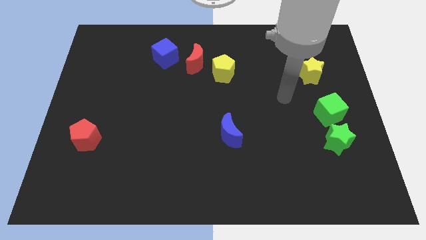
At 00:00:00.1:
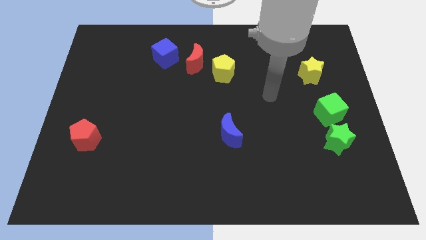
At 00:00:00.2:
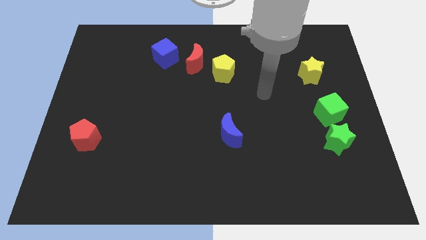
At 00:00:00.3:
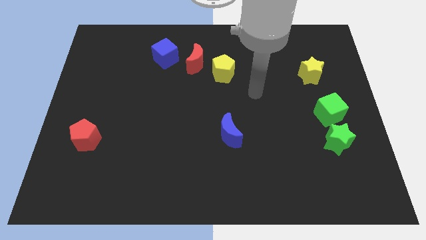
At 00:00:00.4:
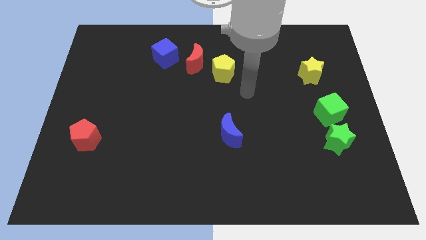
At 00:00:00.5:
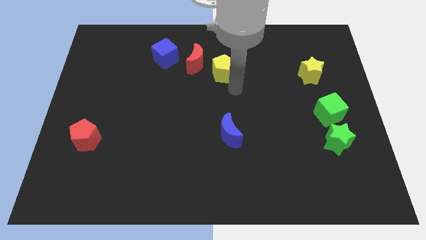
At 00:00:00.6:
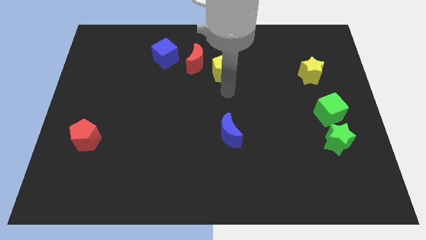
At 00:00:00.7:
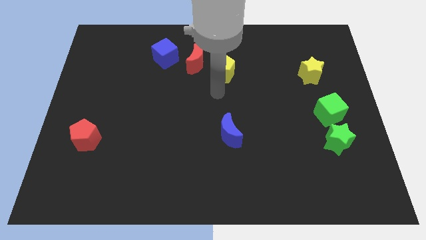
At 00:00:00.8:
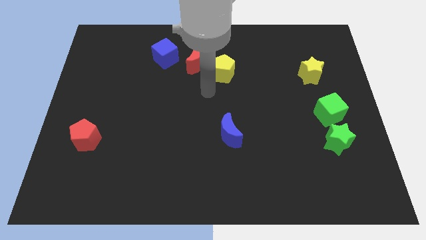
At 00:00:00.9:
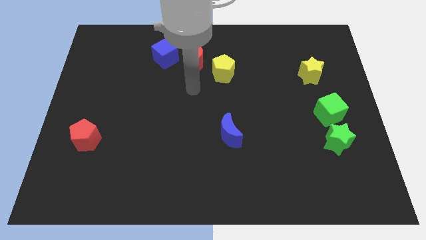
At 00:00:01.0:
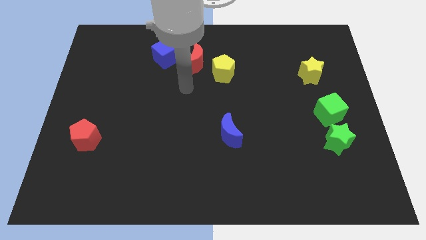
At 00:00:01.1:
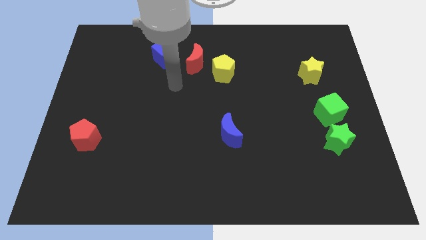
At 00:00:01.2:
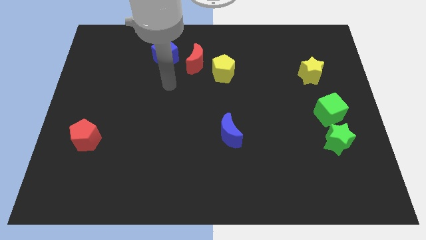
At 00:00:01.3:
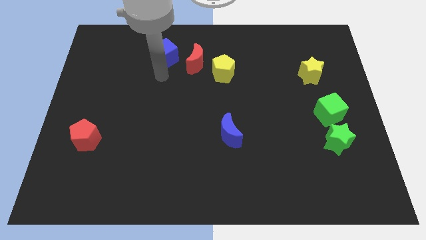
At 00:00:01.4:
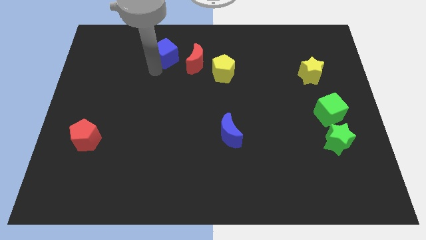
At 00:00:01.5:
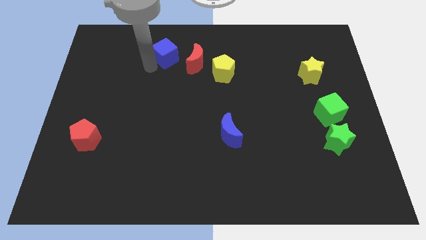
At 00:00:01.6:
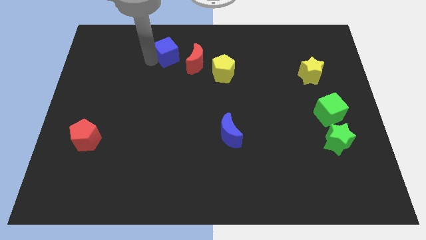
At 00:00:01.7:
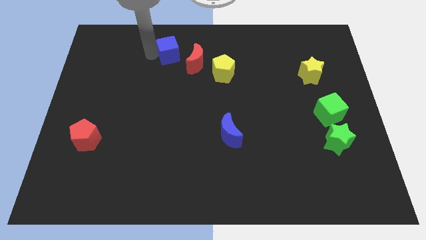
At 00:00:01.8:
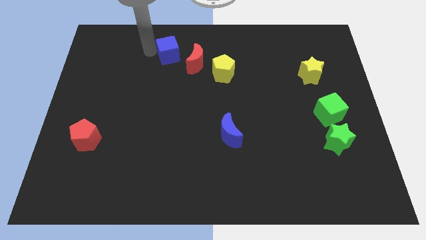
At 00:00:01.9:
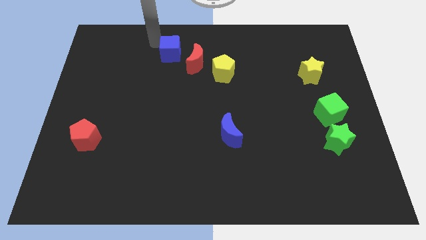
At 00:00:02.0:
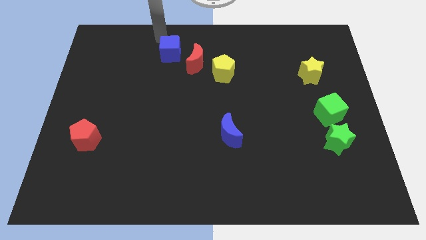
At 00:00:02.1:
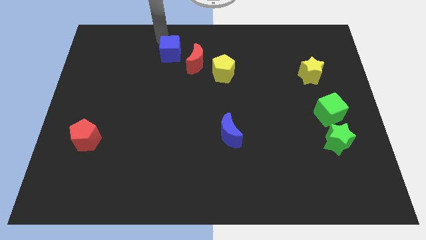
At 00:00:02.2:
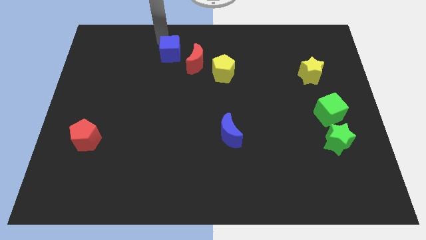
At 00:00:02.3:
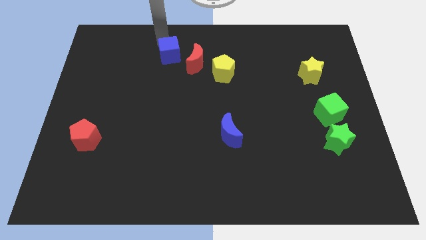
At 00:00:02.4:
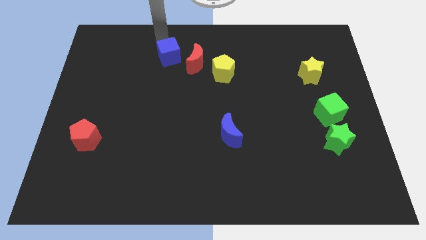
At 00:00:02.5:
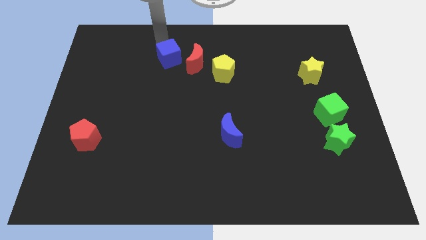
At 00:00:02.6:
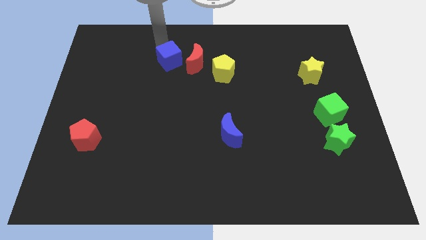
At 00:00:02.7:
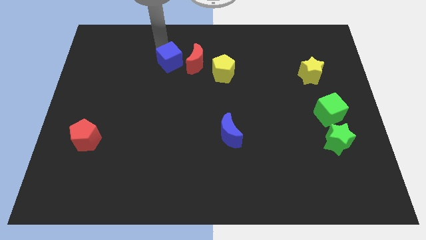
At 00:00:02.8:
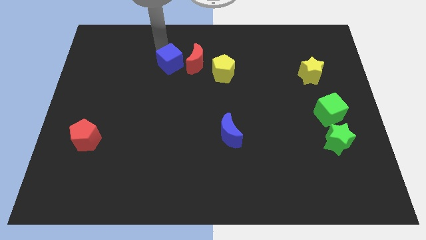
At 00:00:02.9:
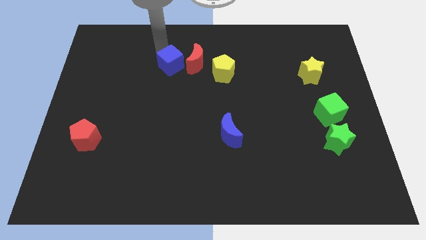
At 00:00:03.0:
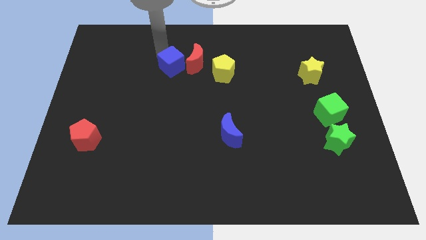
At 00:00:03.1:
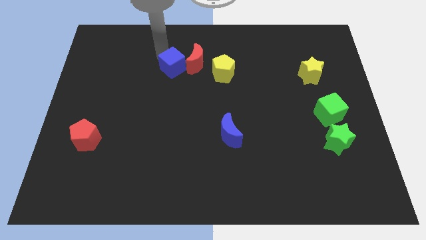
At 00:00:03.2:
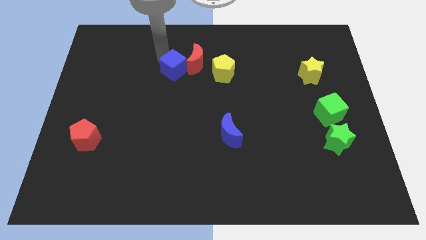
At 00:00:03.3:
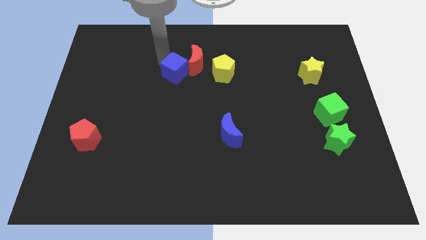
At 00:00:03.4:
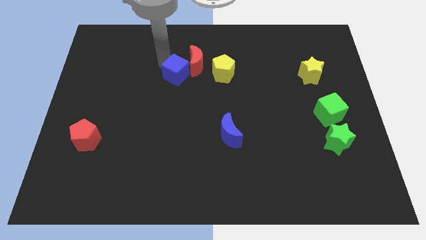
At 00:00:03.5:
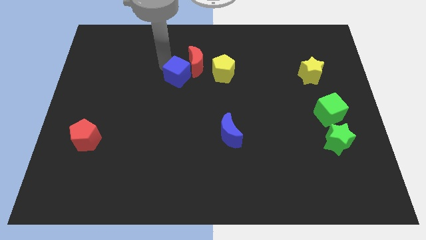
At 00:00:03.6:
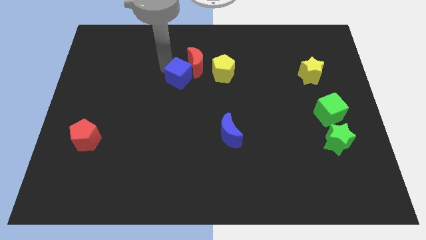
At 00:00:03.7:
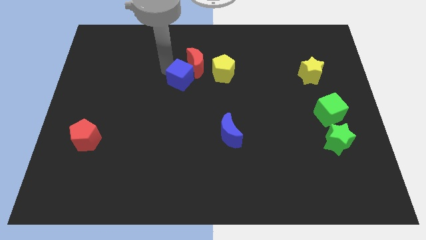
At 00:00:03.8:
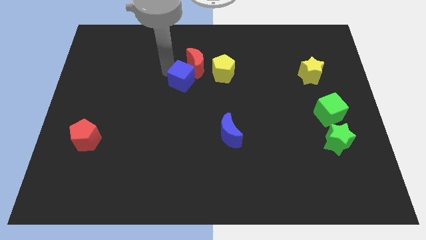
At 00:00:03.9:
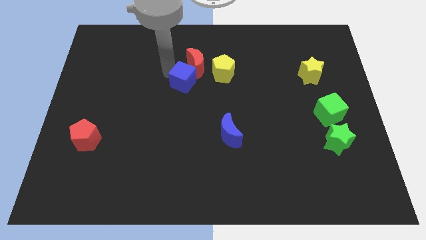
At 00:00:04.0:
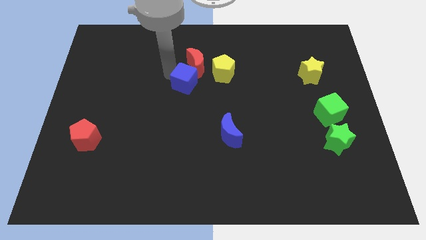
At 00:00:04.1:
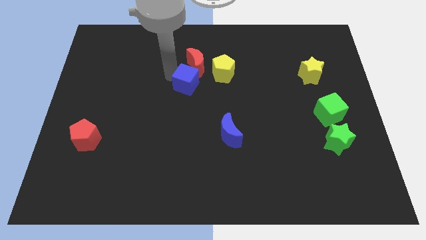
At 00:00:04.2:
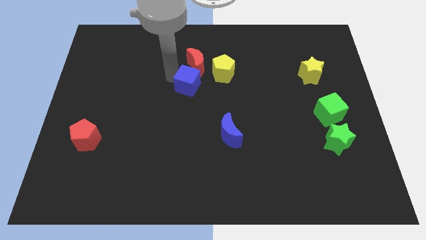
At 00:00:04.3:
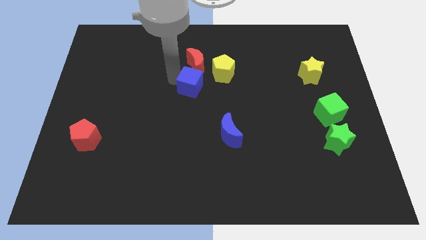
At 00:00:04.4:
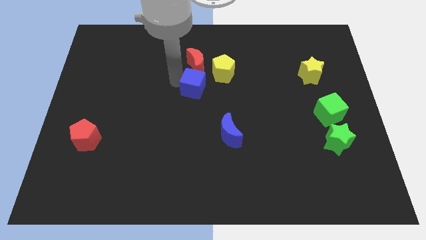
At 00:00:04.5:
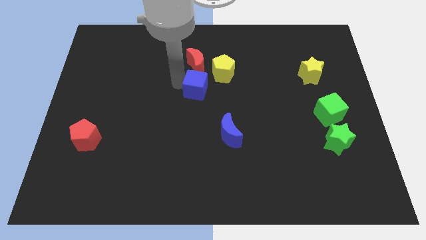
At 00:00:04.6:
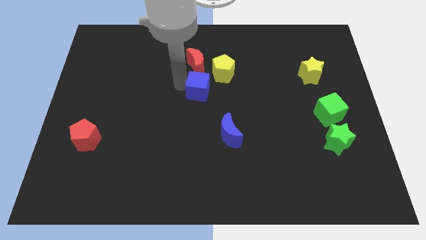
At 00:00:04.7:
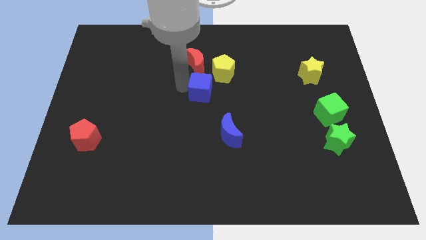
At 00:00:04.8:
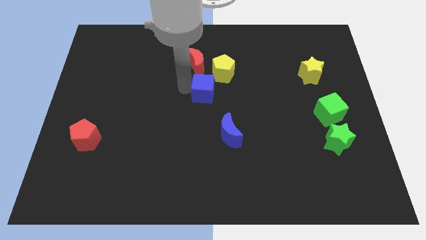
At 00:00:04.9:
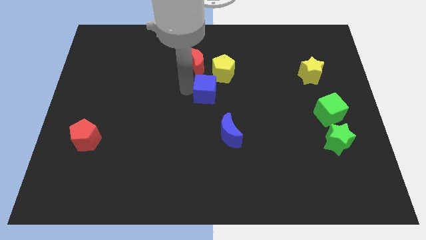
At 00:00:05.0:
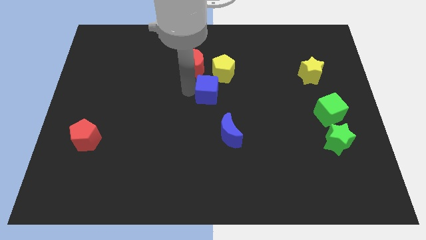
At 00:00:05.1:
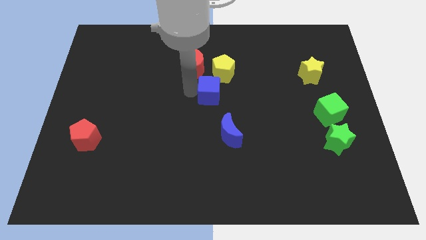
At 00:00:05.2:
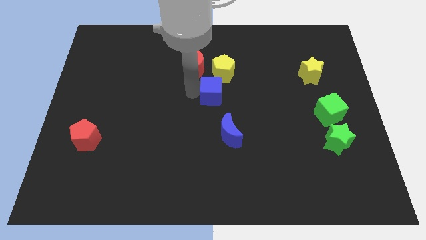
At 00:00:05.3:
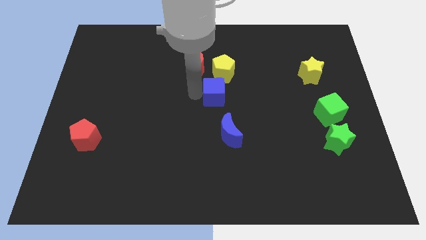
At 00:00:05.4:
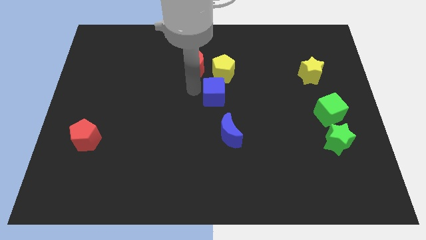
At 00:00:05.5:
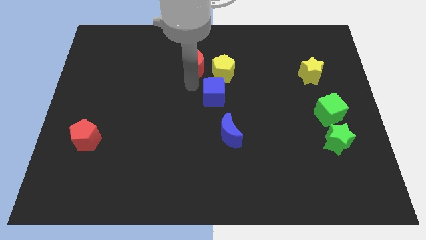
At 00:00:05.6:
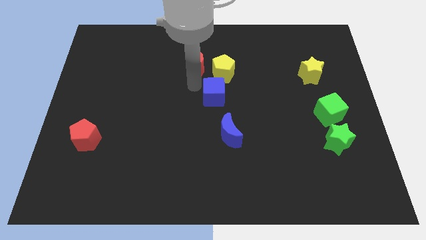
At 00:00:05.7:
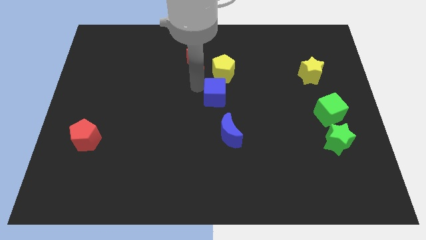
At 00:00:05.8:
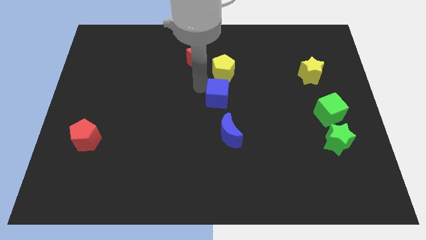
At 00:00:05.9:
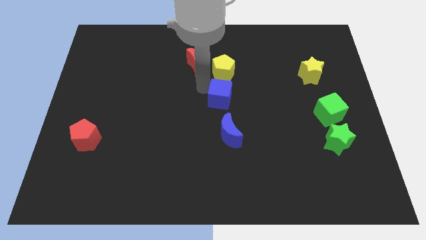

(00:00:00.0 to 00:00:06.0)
slide the blue cube diagonally down and to the right

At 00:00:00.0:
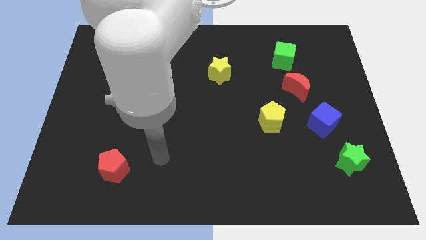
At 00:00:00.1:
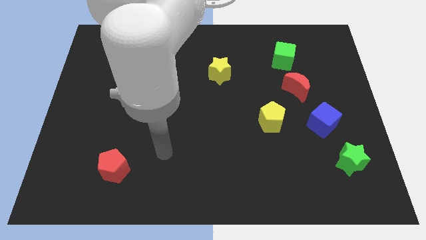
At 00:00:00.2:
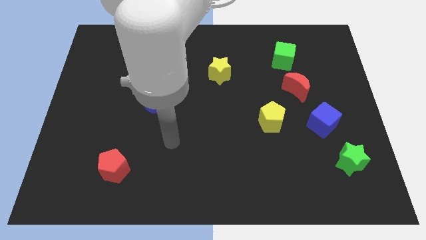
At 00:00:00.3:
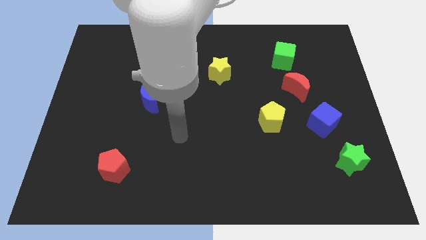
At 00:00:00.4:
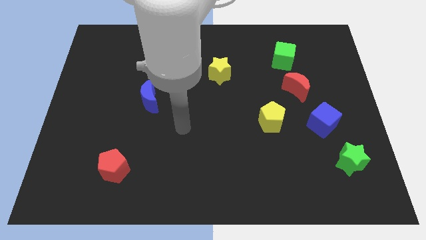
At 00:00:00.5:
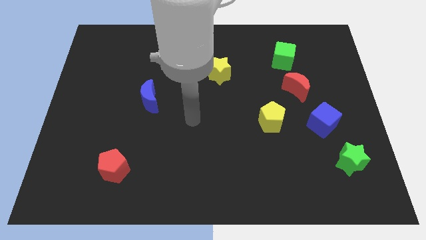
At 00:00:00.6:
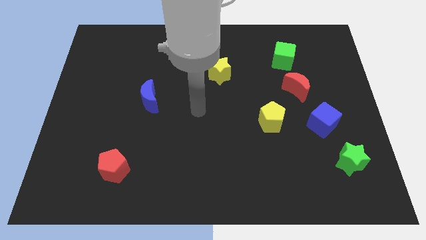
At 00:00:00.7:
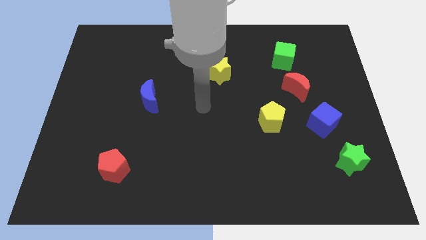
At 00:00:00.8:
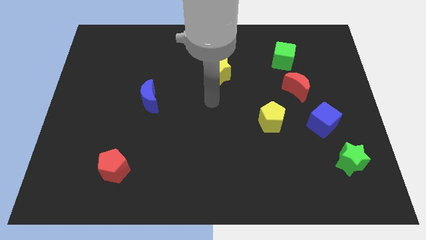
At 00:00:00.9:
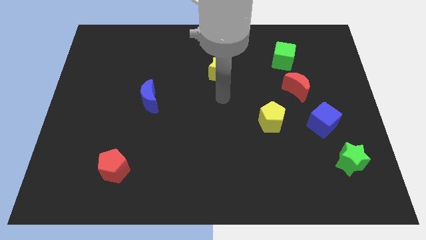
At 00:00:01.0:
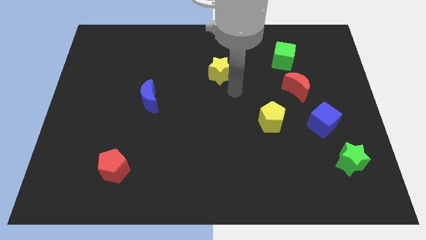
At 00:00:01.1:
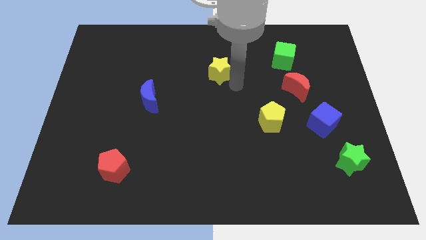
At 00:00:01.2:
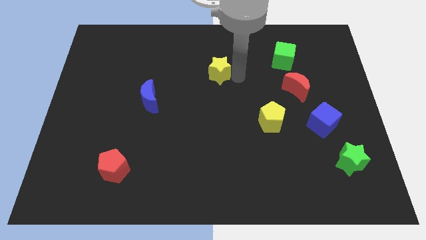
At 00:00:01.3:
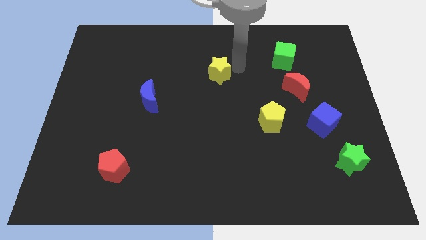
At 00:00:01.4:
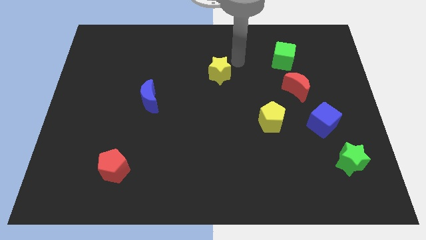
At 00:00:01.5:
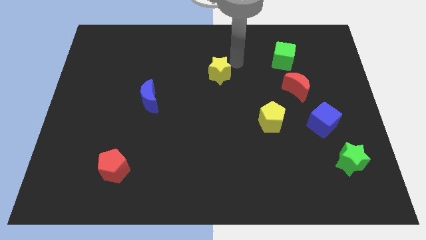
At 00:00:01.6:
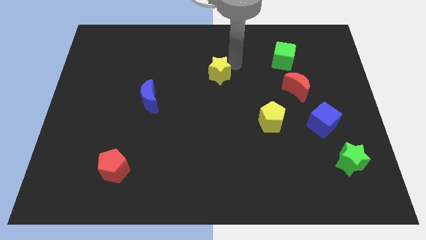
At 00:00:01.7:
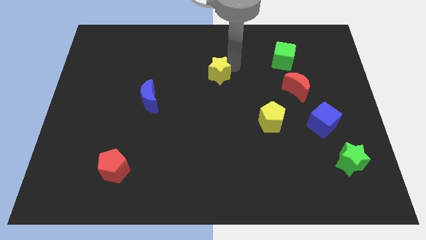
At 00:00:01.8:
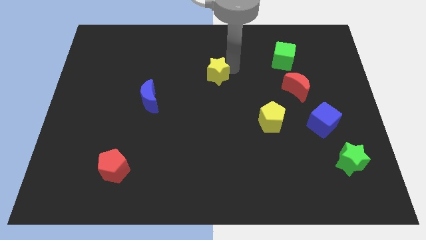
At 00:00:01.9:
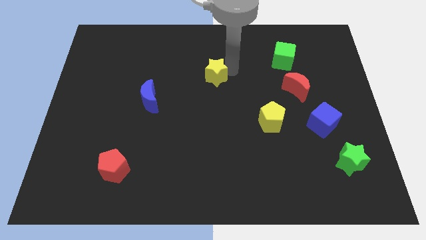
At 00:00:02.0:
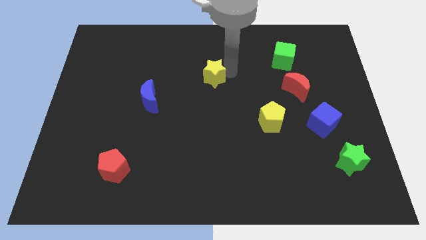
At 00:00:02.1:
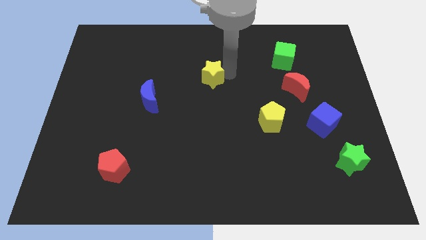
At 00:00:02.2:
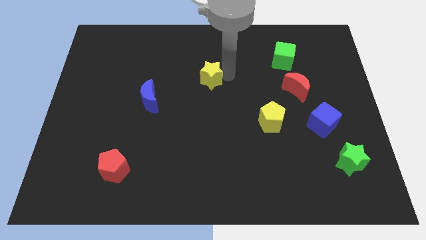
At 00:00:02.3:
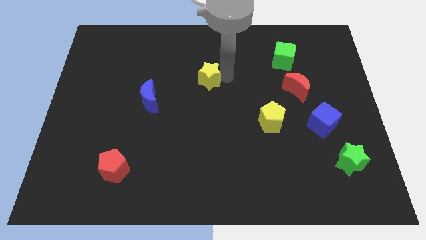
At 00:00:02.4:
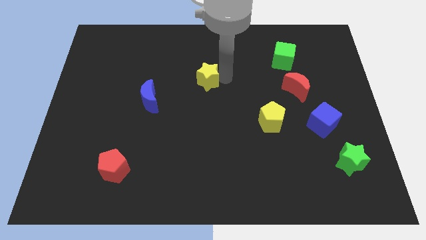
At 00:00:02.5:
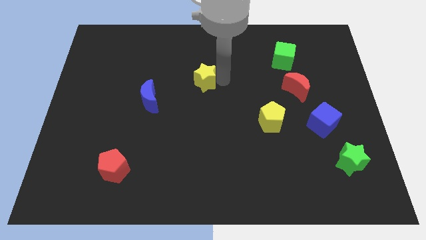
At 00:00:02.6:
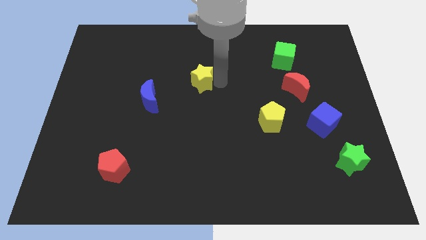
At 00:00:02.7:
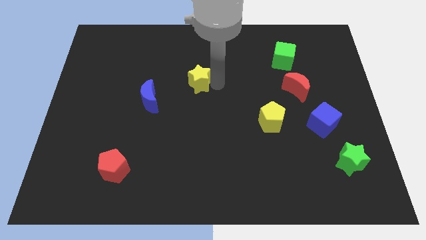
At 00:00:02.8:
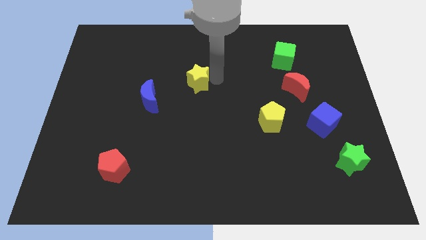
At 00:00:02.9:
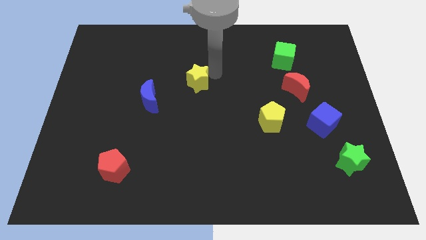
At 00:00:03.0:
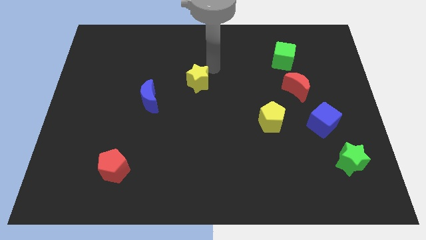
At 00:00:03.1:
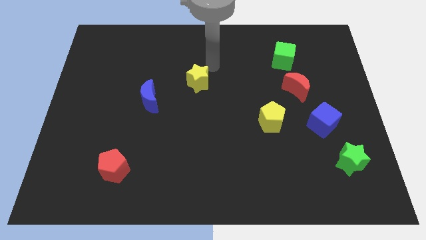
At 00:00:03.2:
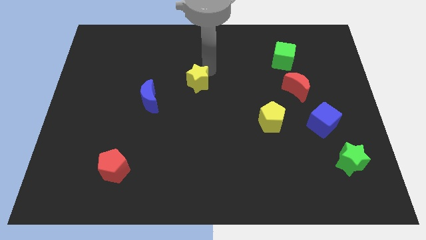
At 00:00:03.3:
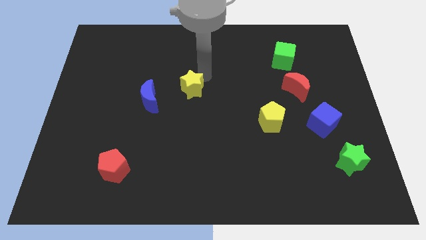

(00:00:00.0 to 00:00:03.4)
push the yellow star a little diagonally downwards and to the left
